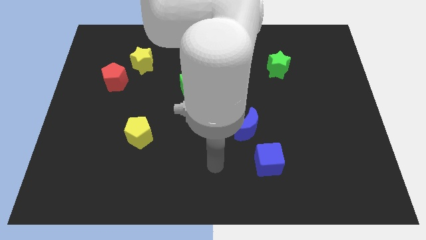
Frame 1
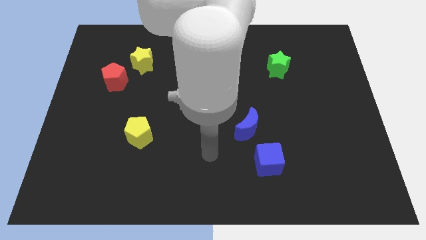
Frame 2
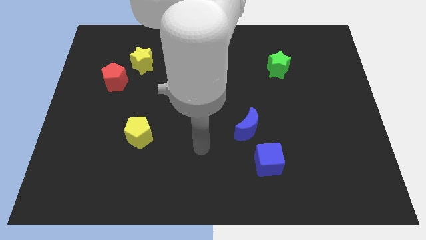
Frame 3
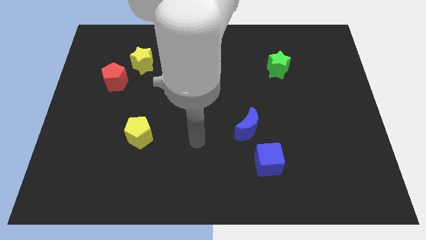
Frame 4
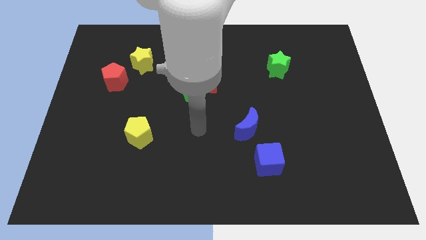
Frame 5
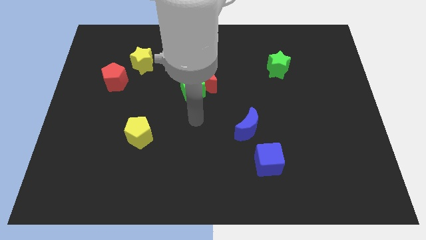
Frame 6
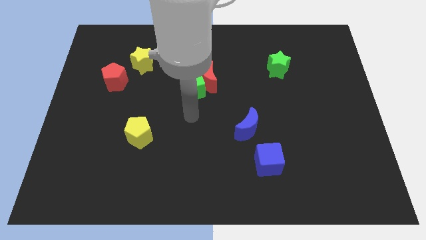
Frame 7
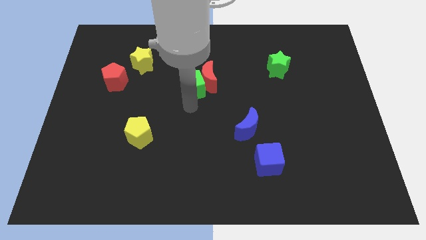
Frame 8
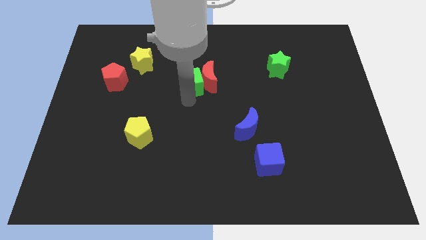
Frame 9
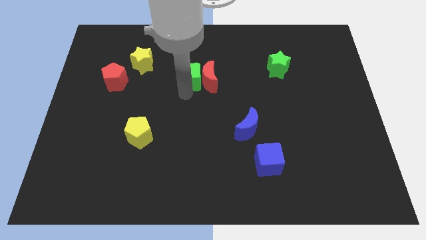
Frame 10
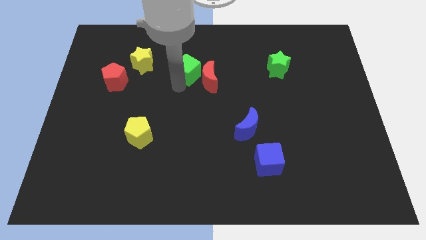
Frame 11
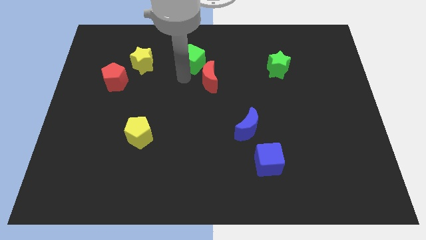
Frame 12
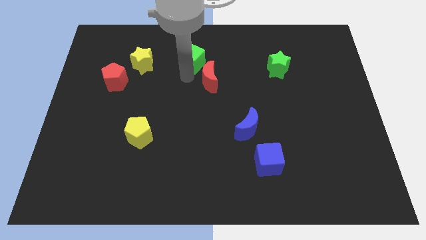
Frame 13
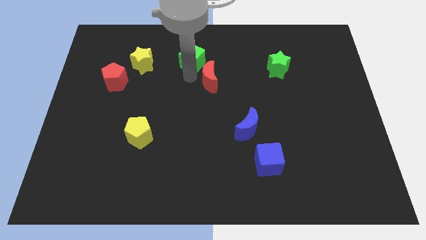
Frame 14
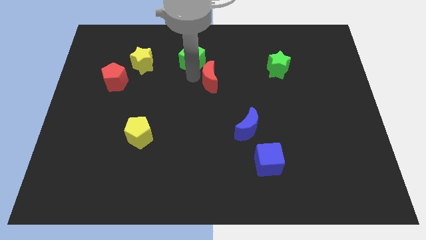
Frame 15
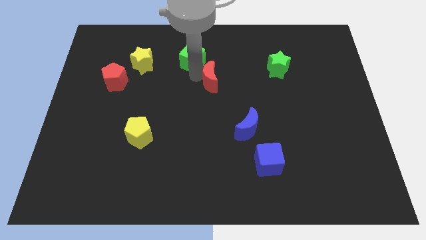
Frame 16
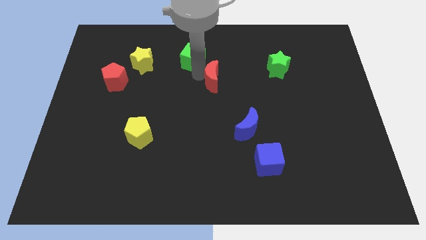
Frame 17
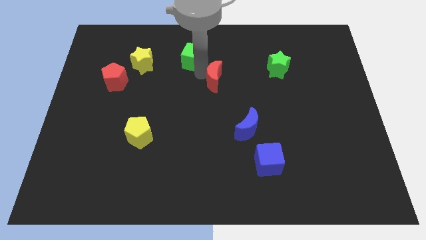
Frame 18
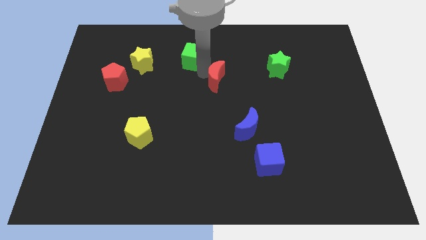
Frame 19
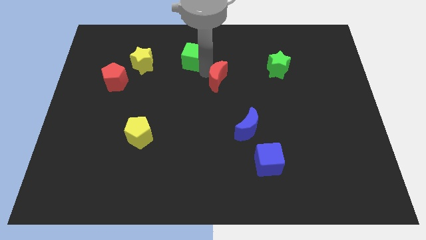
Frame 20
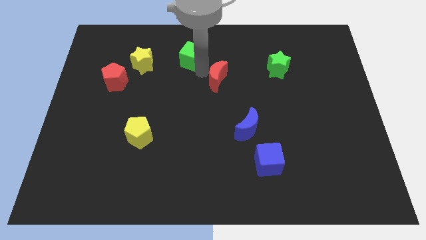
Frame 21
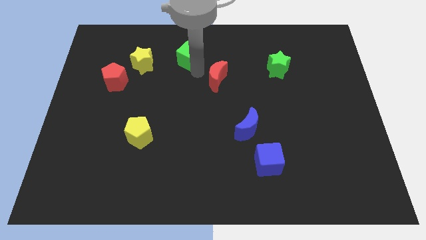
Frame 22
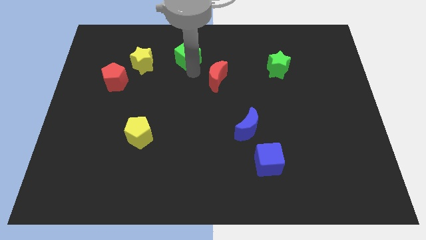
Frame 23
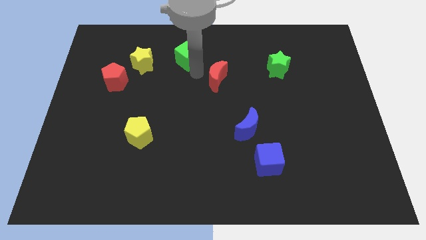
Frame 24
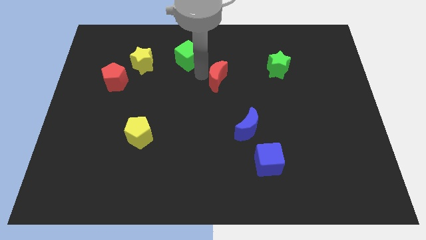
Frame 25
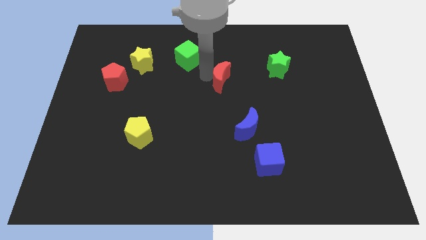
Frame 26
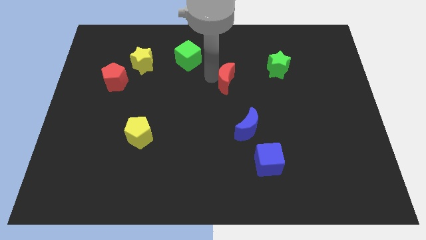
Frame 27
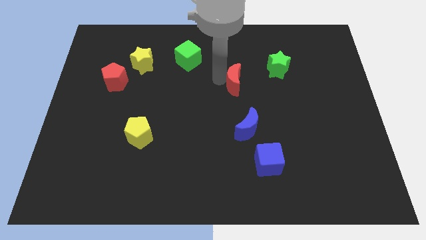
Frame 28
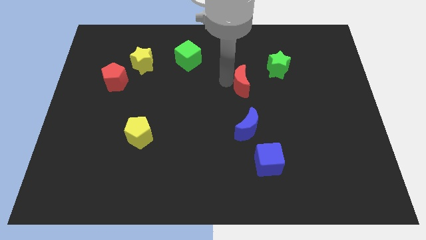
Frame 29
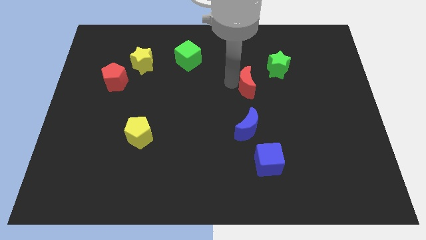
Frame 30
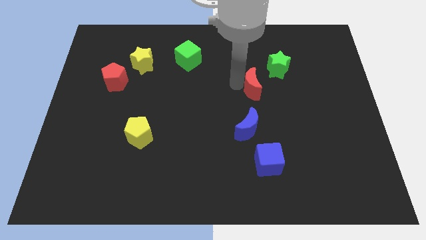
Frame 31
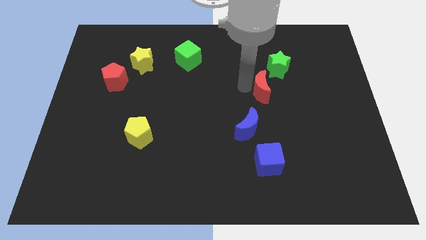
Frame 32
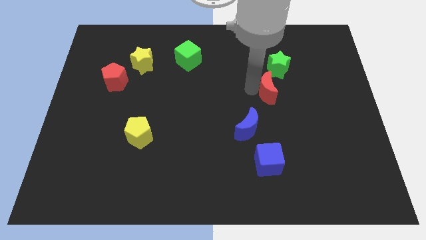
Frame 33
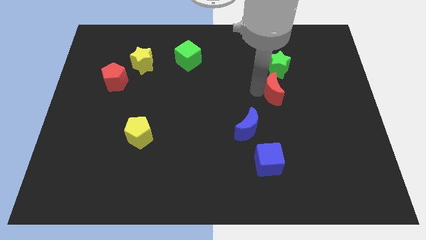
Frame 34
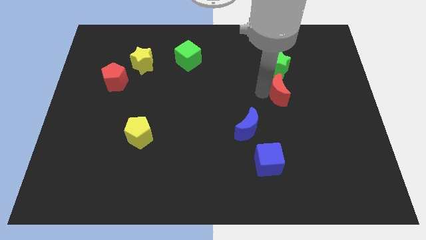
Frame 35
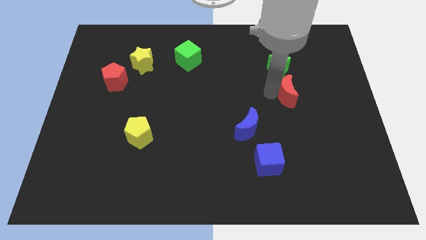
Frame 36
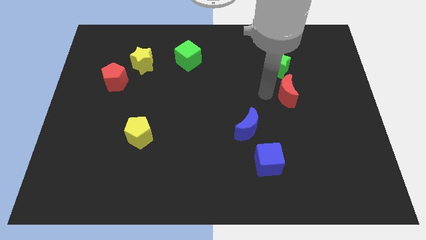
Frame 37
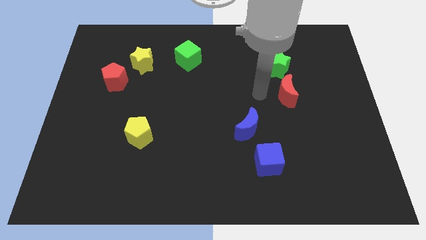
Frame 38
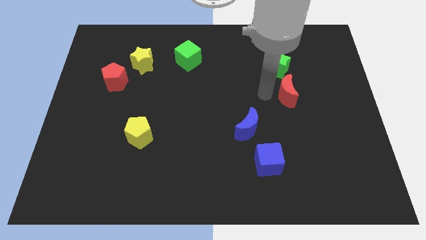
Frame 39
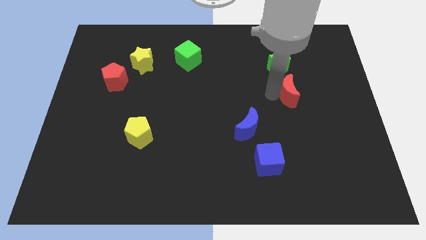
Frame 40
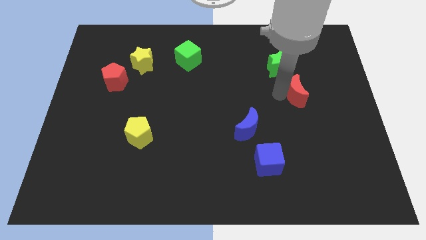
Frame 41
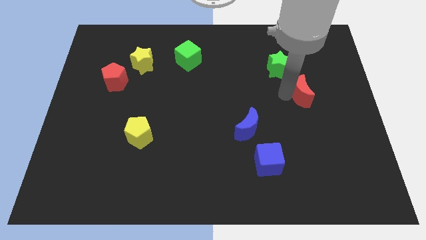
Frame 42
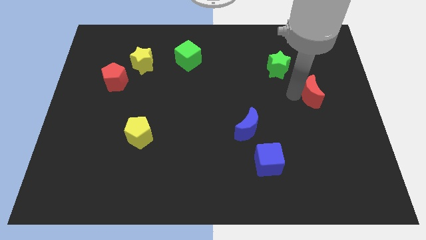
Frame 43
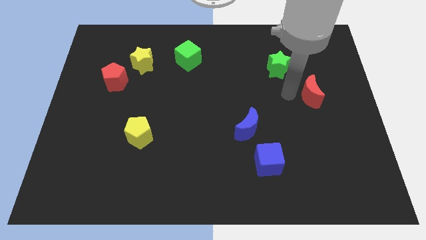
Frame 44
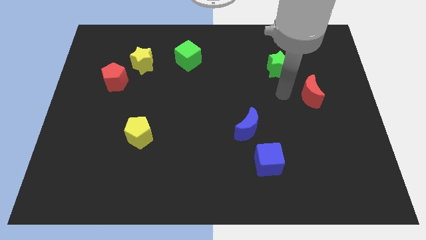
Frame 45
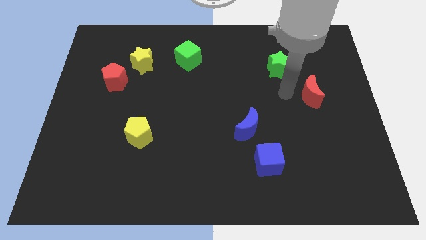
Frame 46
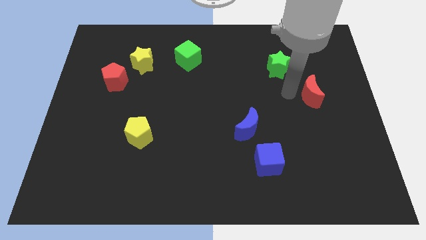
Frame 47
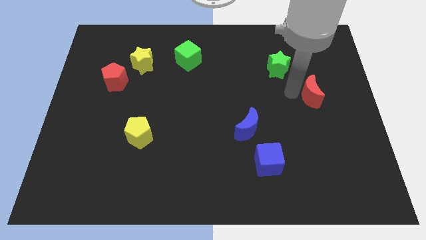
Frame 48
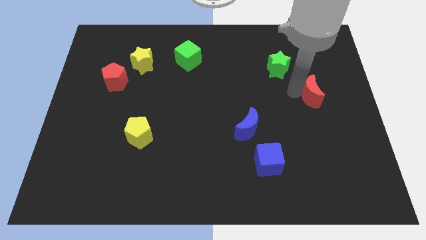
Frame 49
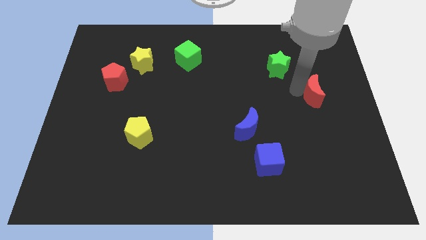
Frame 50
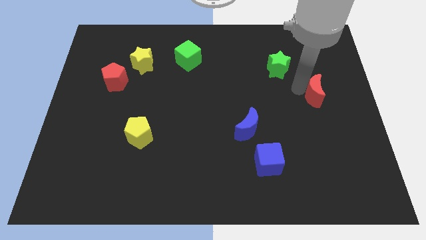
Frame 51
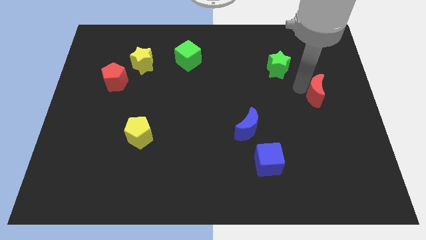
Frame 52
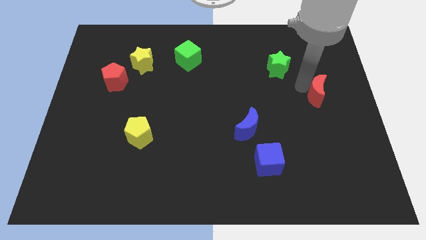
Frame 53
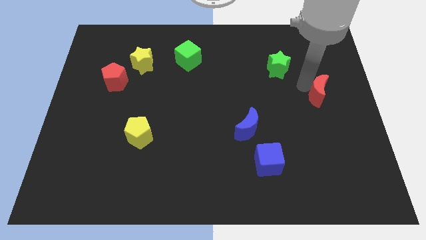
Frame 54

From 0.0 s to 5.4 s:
move the red moon to the center right
